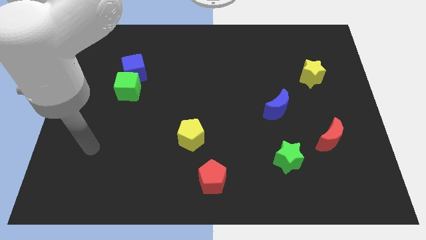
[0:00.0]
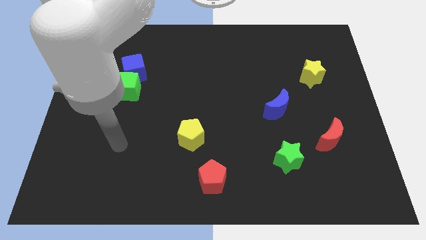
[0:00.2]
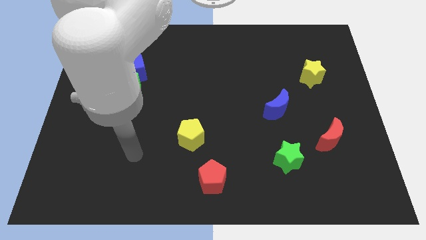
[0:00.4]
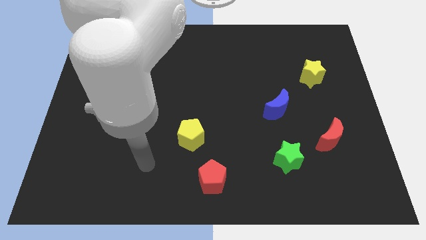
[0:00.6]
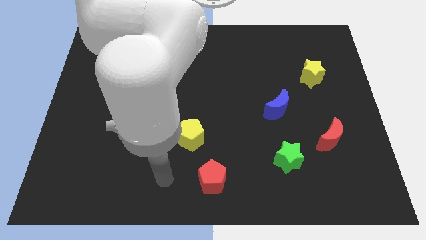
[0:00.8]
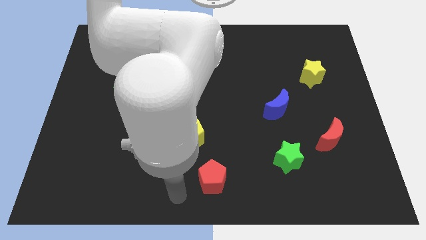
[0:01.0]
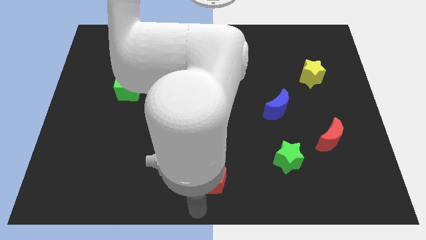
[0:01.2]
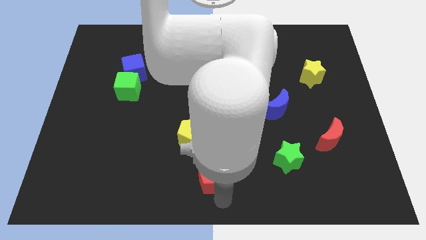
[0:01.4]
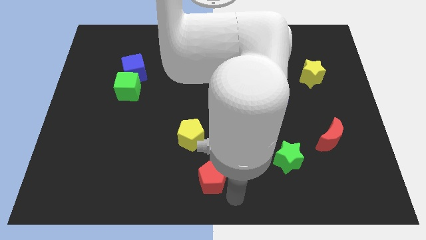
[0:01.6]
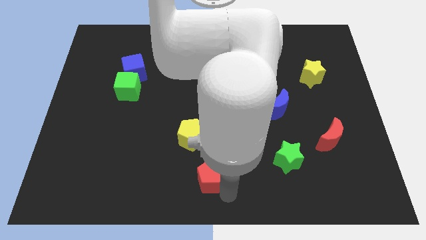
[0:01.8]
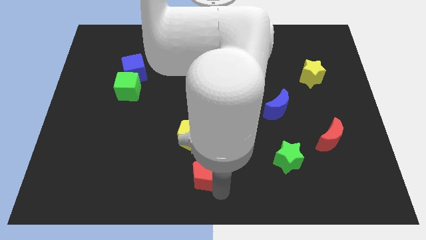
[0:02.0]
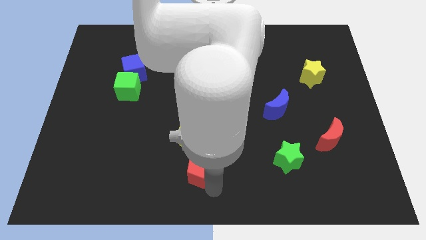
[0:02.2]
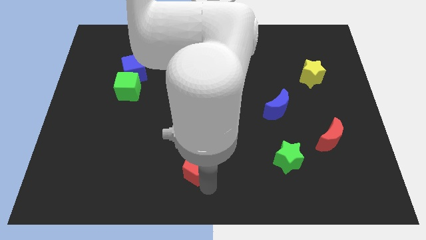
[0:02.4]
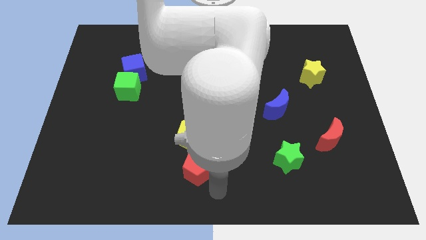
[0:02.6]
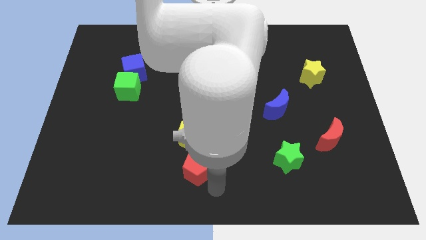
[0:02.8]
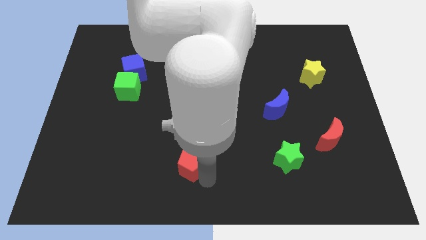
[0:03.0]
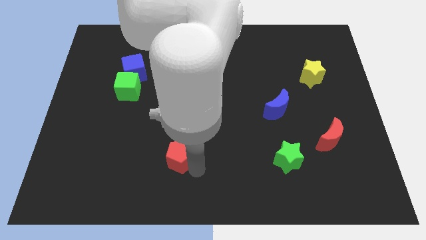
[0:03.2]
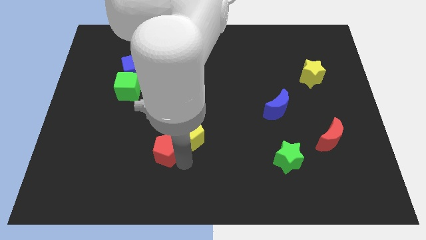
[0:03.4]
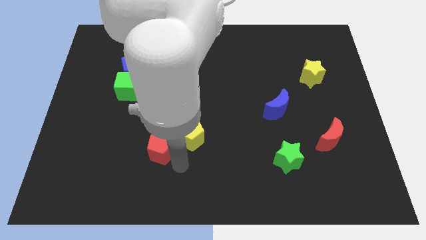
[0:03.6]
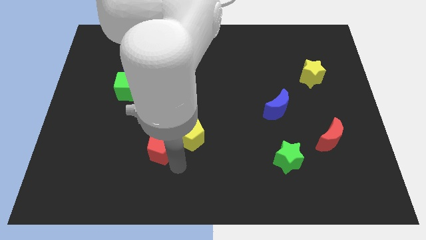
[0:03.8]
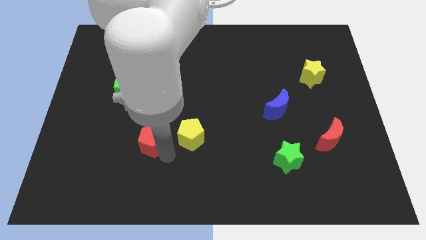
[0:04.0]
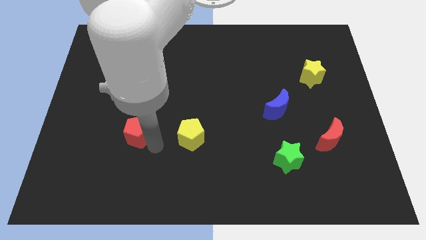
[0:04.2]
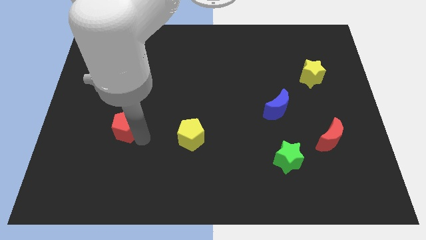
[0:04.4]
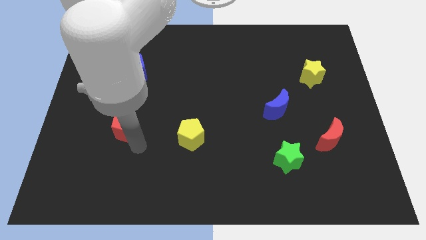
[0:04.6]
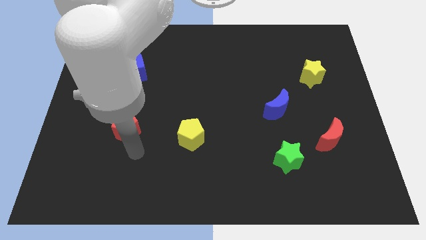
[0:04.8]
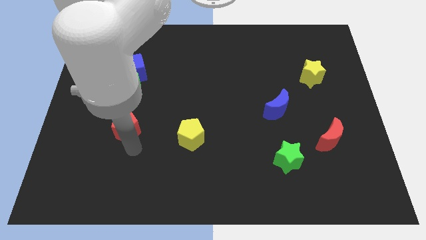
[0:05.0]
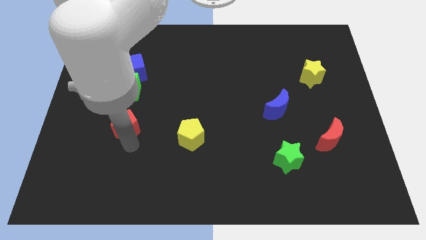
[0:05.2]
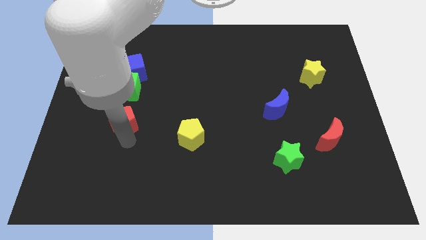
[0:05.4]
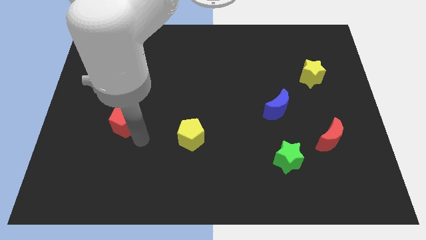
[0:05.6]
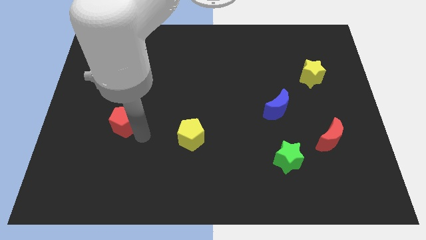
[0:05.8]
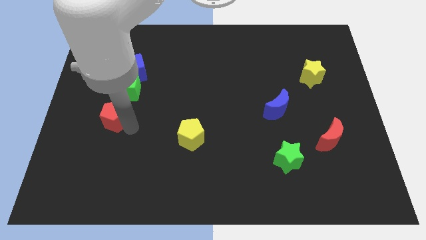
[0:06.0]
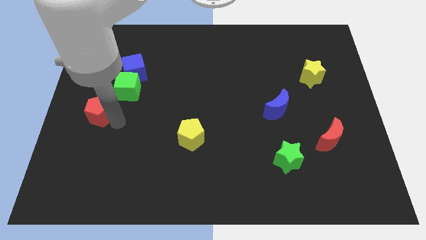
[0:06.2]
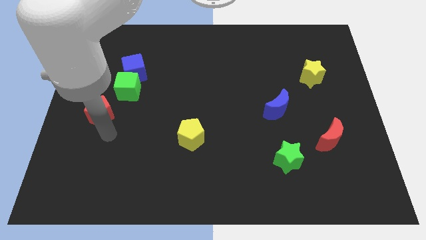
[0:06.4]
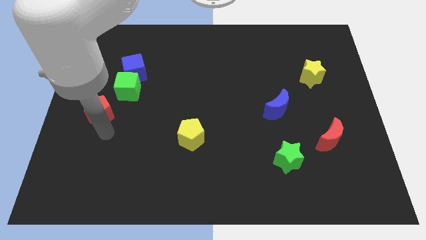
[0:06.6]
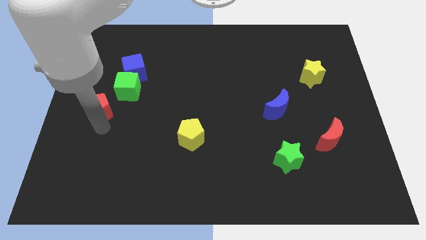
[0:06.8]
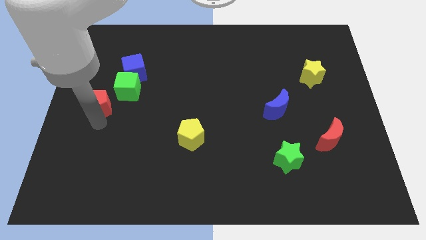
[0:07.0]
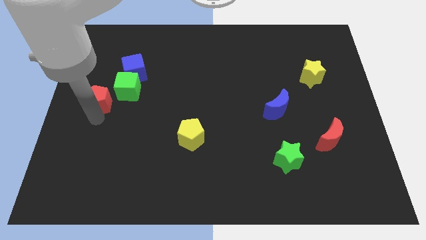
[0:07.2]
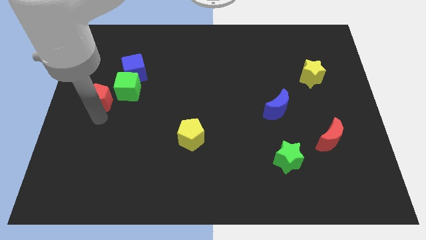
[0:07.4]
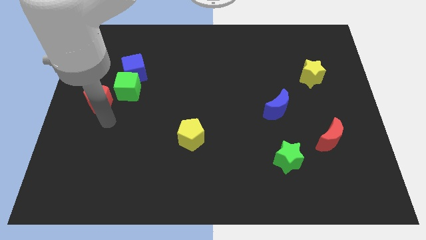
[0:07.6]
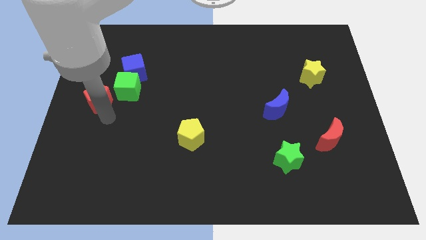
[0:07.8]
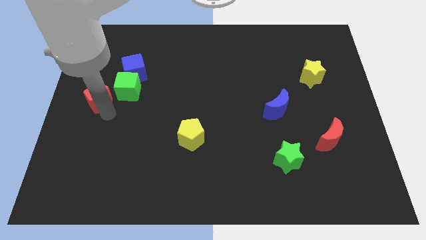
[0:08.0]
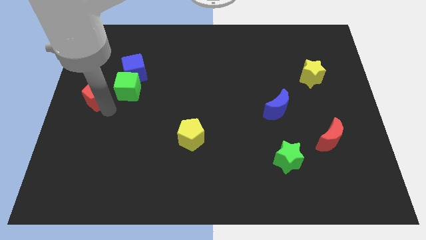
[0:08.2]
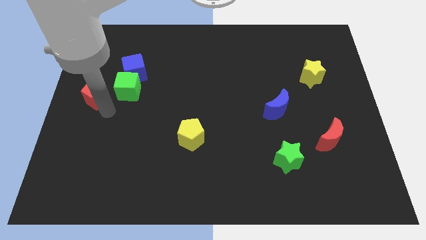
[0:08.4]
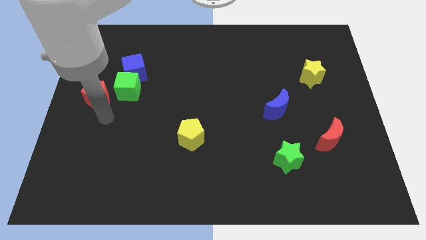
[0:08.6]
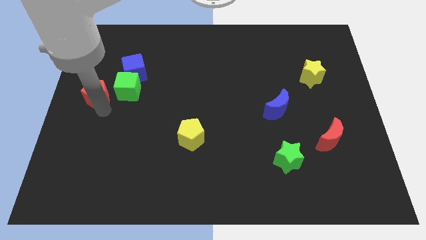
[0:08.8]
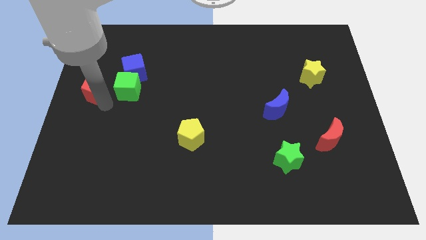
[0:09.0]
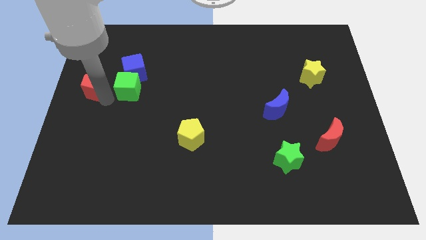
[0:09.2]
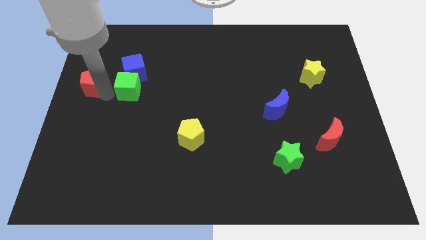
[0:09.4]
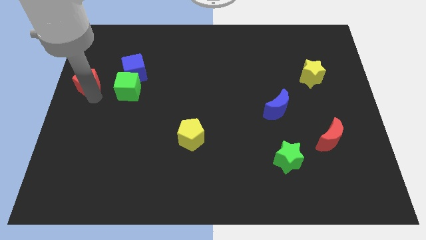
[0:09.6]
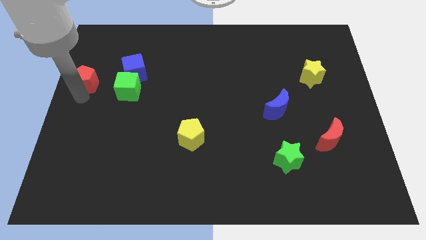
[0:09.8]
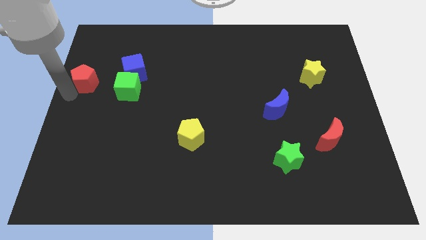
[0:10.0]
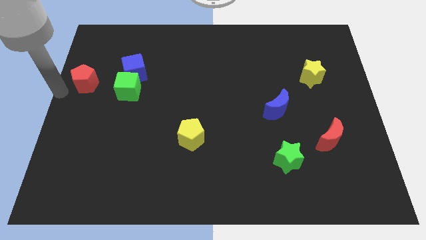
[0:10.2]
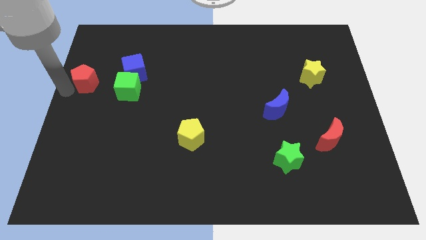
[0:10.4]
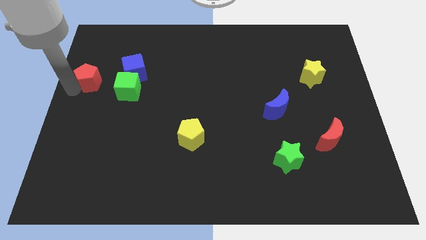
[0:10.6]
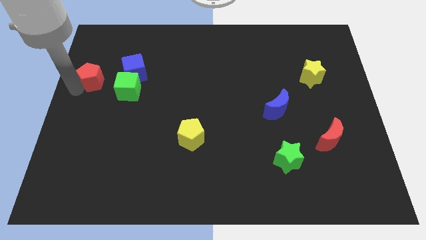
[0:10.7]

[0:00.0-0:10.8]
push the red pentagon to the top left of the green cube

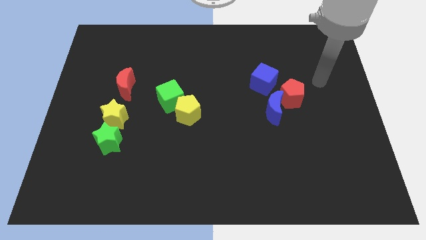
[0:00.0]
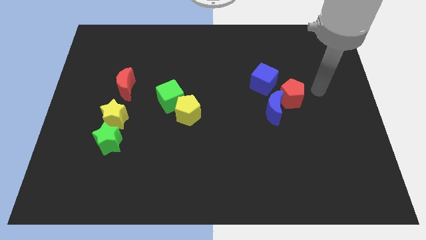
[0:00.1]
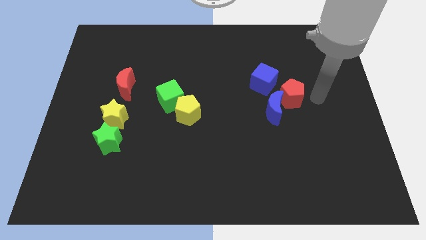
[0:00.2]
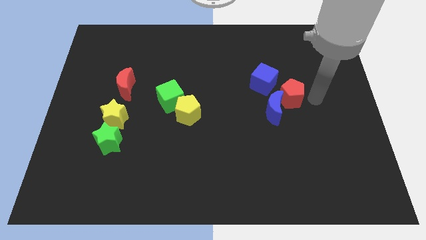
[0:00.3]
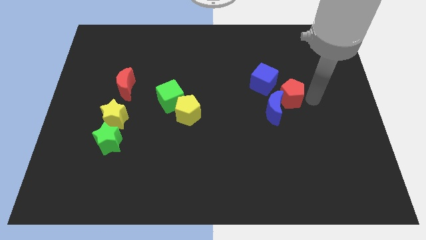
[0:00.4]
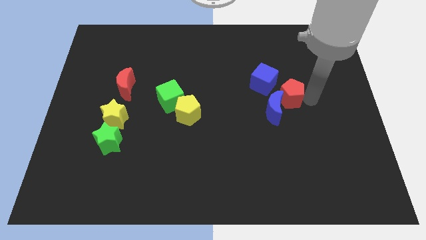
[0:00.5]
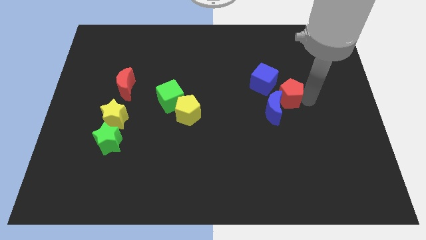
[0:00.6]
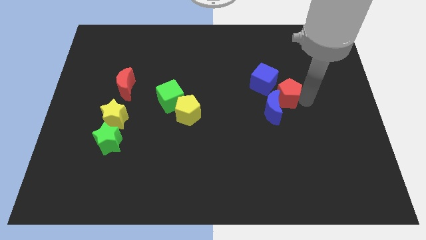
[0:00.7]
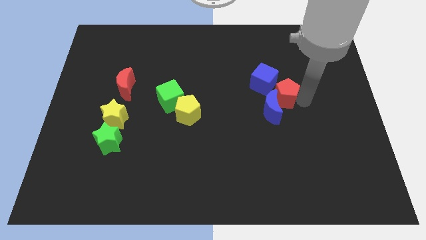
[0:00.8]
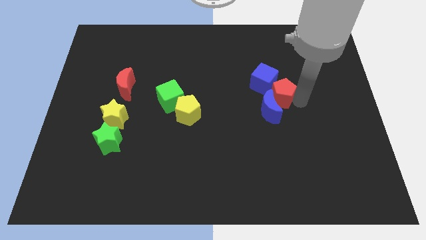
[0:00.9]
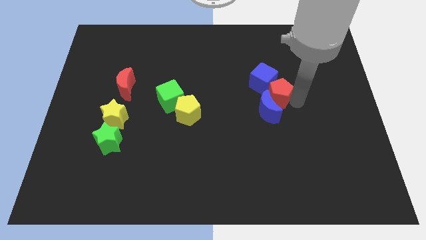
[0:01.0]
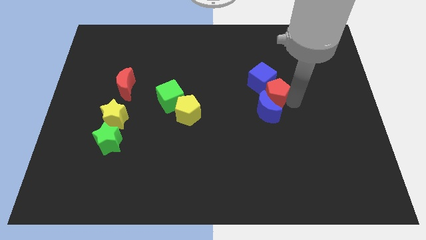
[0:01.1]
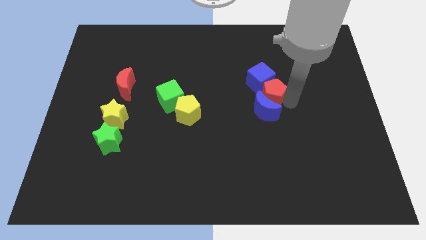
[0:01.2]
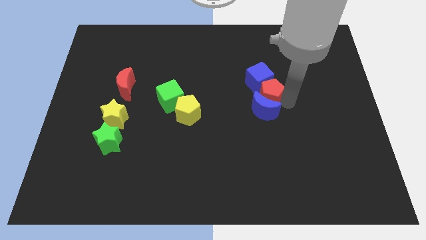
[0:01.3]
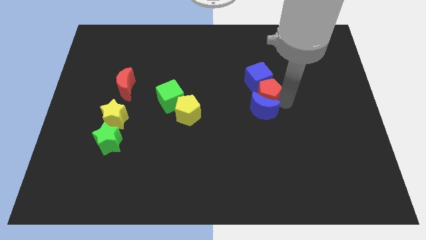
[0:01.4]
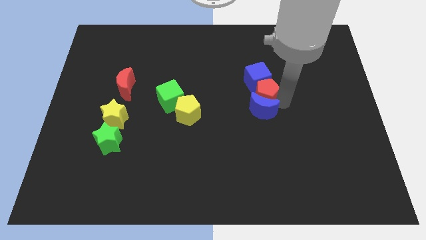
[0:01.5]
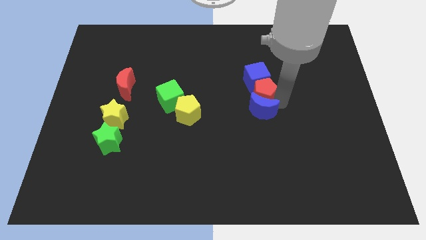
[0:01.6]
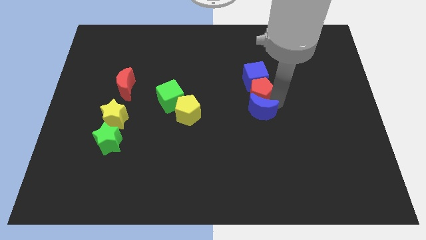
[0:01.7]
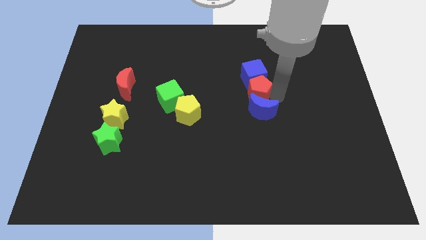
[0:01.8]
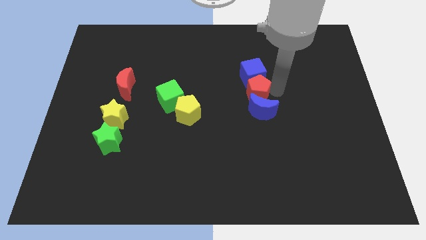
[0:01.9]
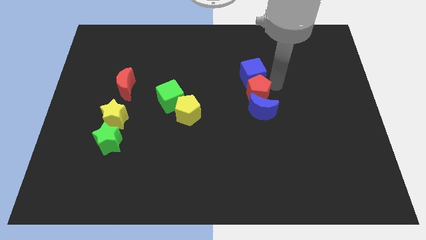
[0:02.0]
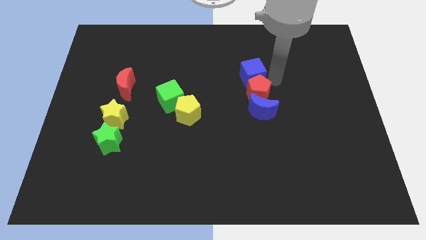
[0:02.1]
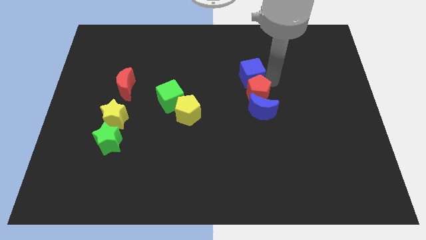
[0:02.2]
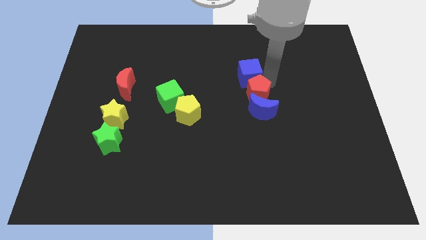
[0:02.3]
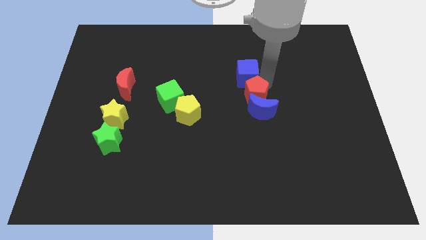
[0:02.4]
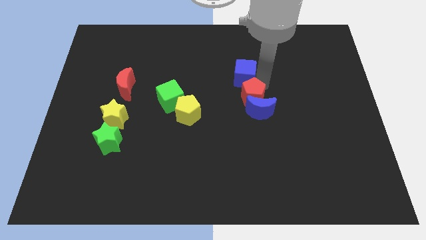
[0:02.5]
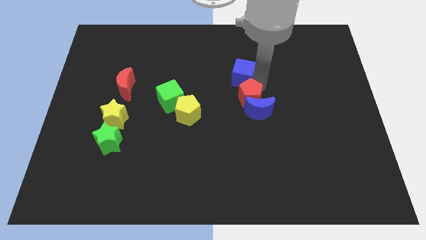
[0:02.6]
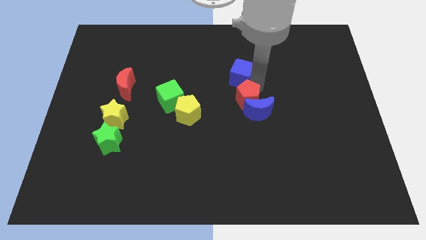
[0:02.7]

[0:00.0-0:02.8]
put the red pentagon to the right of the yellow pentagon
